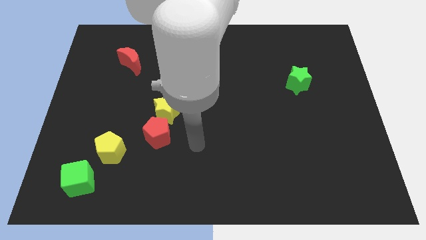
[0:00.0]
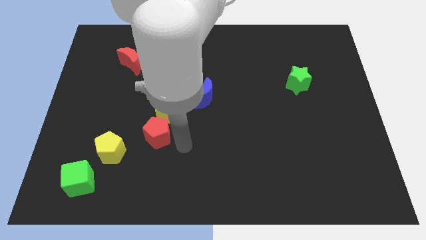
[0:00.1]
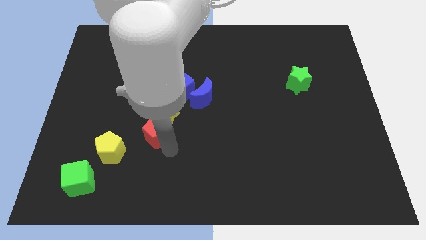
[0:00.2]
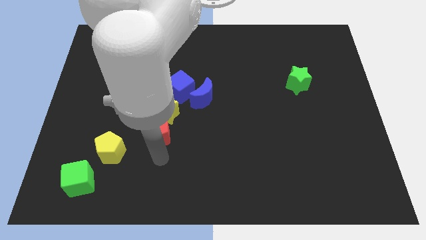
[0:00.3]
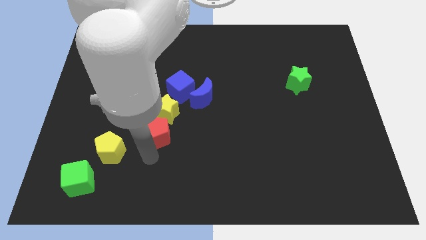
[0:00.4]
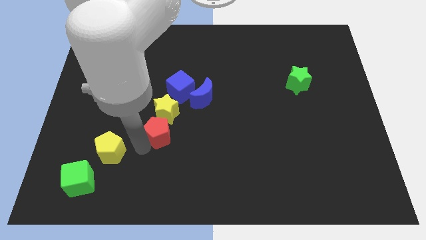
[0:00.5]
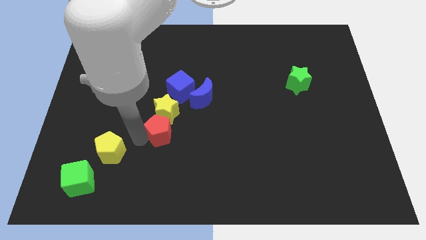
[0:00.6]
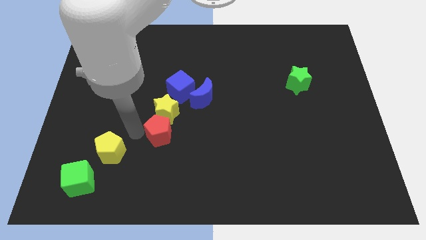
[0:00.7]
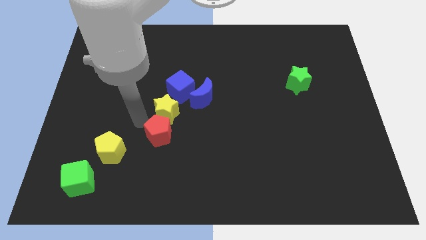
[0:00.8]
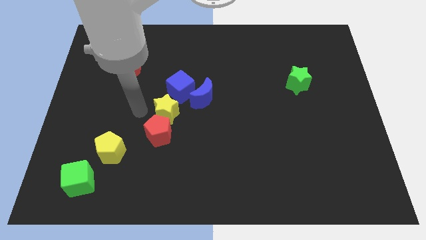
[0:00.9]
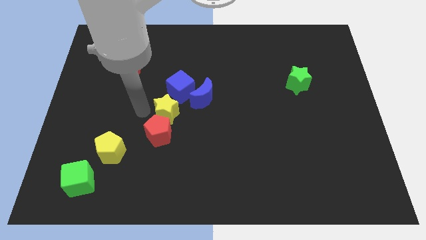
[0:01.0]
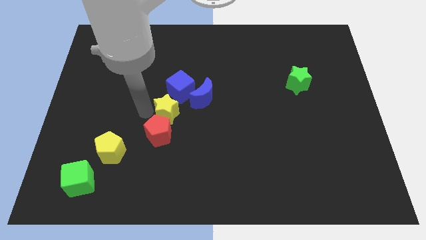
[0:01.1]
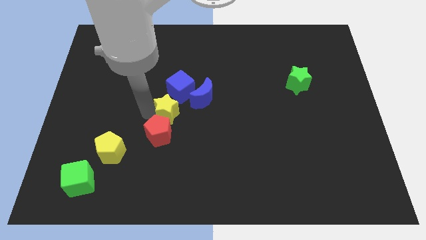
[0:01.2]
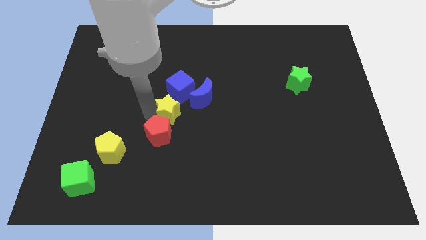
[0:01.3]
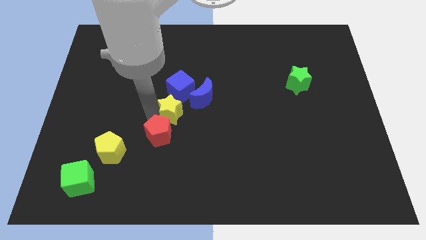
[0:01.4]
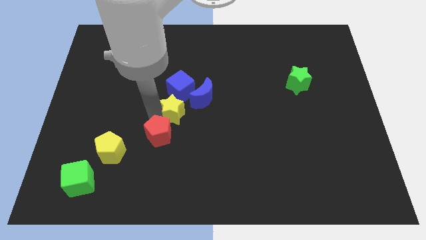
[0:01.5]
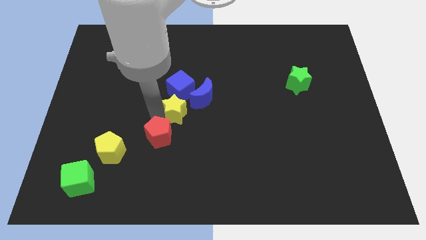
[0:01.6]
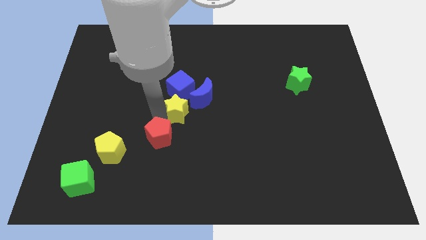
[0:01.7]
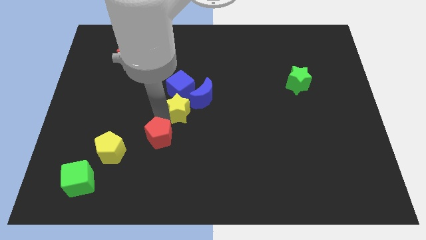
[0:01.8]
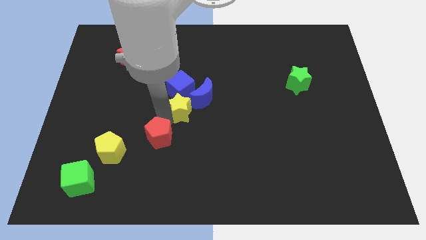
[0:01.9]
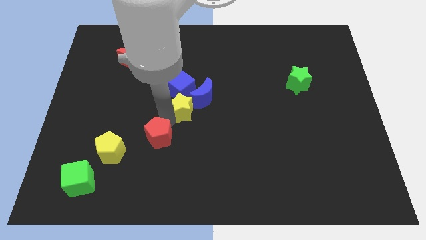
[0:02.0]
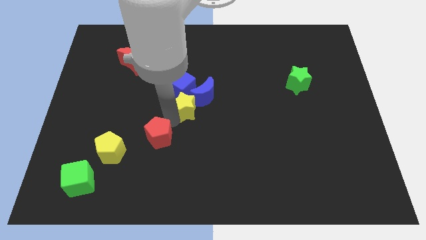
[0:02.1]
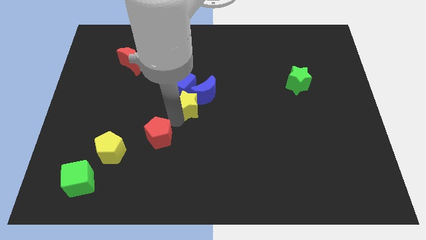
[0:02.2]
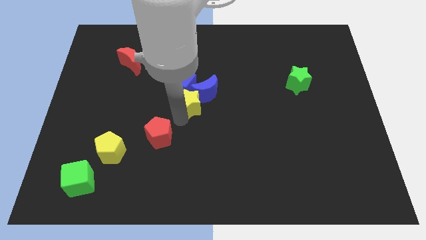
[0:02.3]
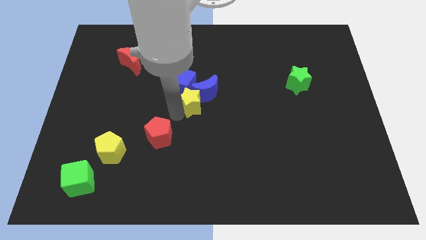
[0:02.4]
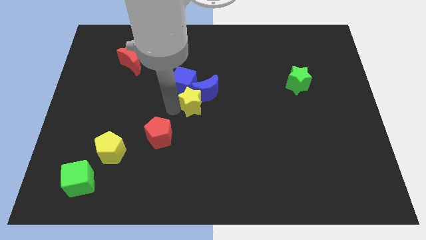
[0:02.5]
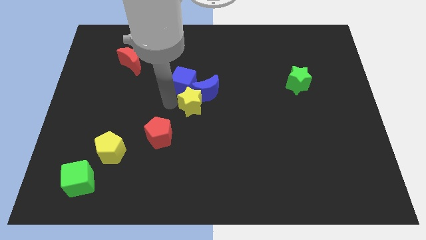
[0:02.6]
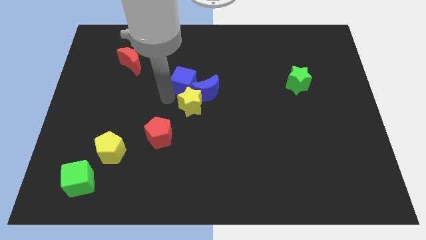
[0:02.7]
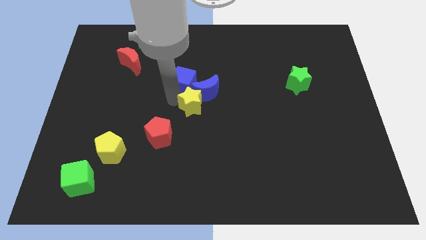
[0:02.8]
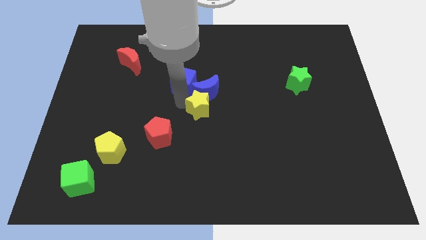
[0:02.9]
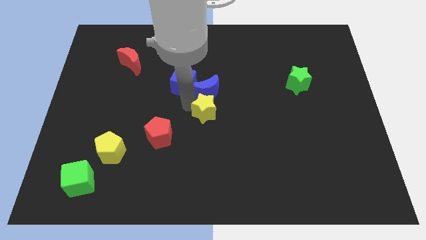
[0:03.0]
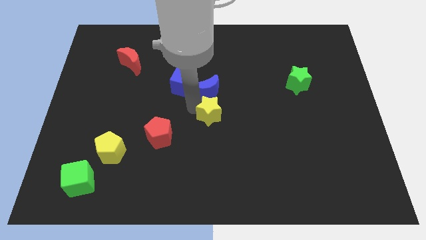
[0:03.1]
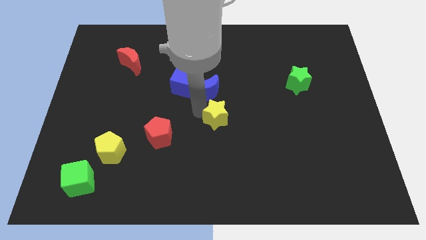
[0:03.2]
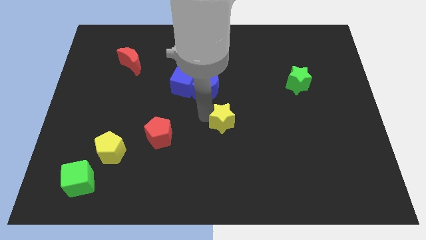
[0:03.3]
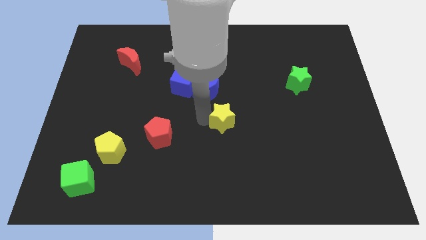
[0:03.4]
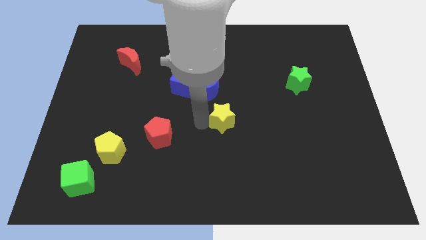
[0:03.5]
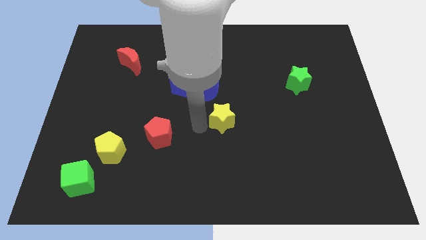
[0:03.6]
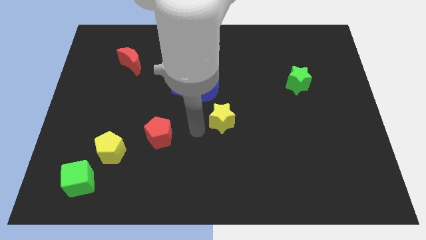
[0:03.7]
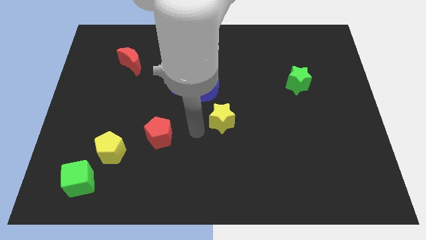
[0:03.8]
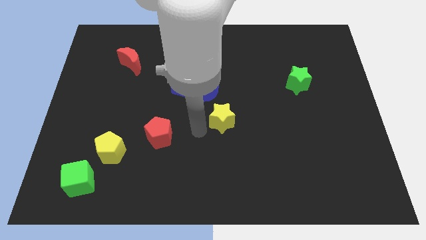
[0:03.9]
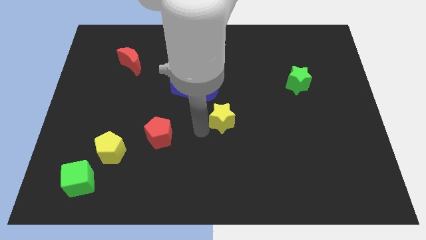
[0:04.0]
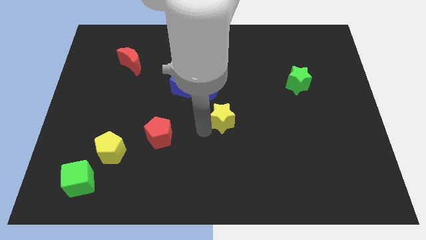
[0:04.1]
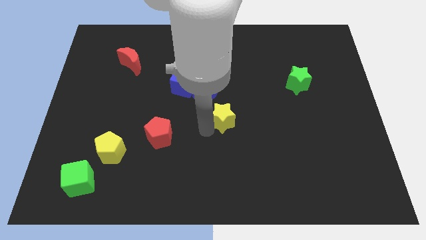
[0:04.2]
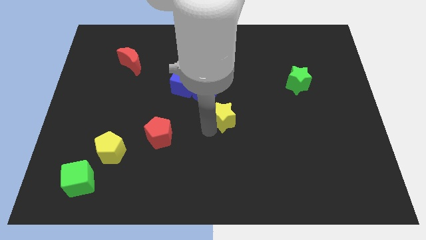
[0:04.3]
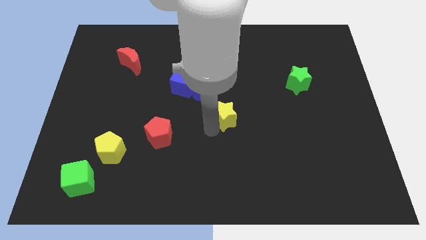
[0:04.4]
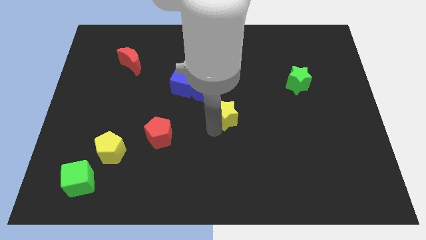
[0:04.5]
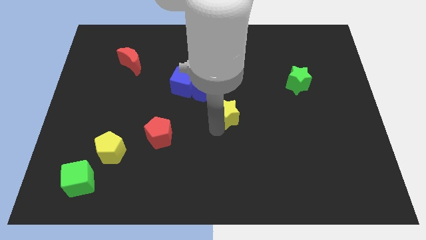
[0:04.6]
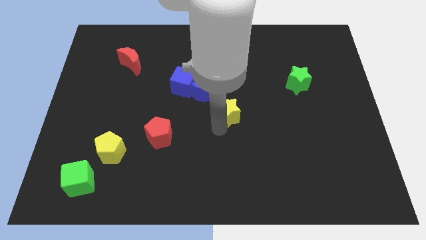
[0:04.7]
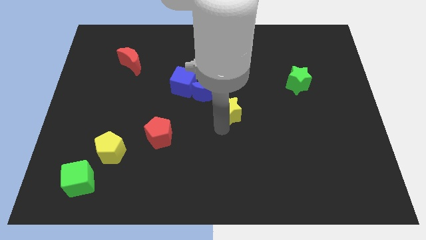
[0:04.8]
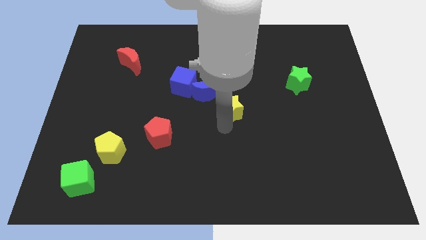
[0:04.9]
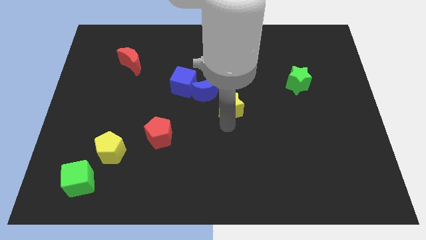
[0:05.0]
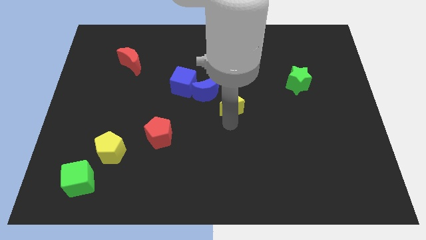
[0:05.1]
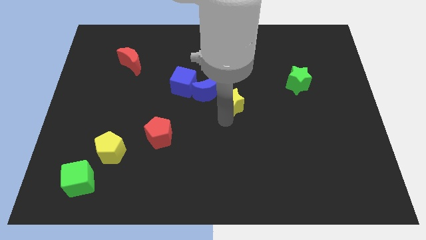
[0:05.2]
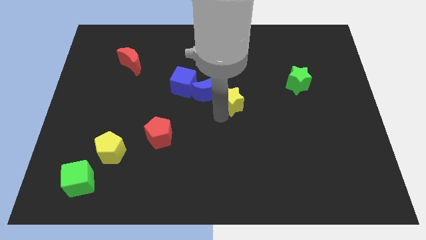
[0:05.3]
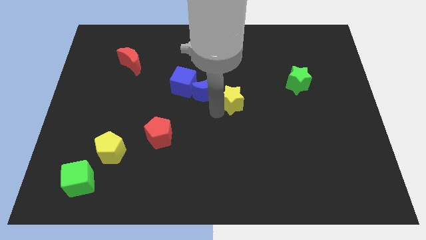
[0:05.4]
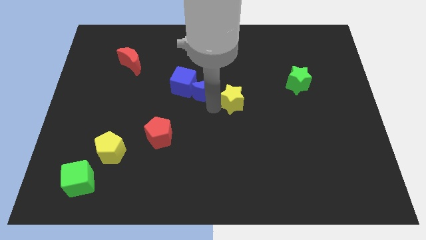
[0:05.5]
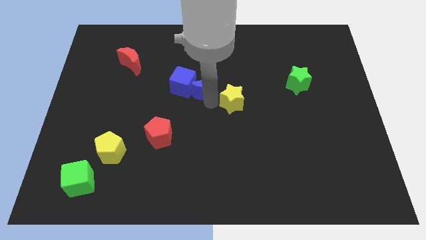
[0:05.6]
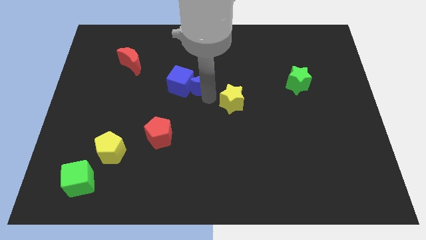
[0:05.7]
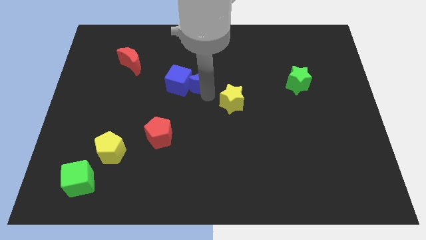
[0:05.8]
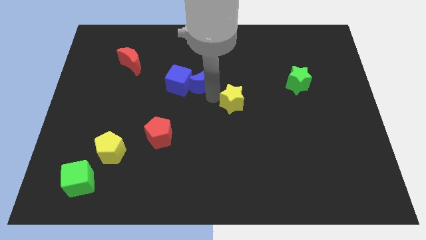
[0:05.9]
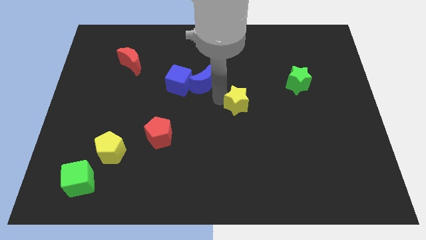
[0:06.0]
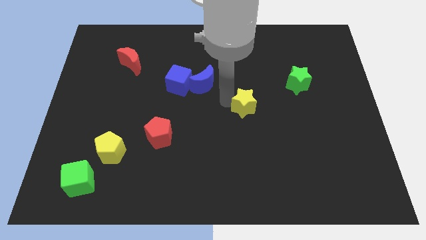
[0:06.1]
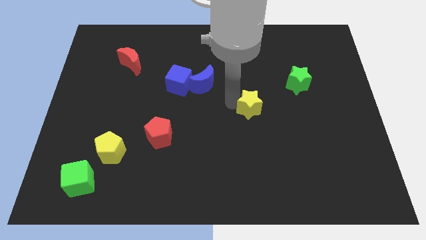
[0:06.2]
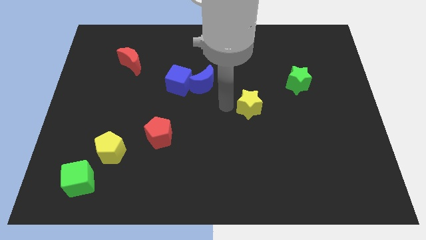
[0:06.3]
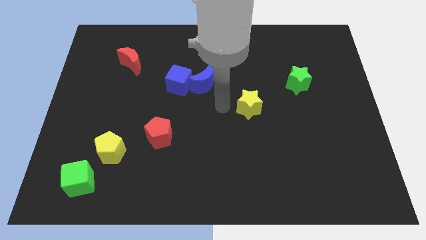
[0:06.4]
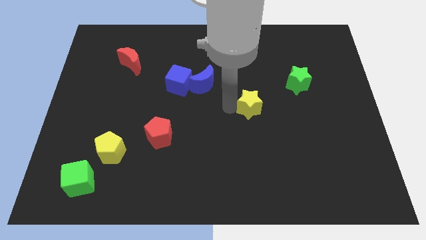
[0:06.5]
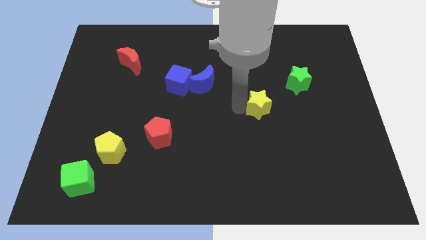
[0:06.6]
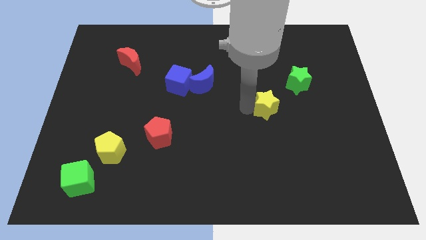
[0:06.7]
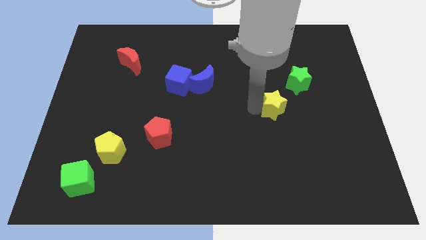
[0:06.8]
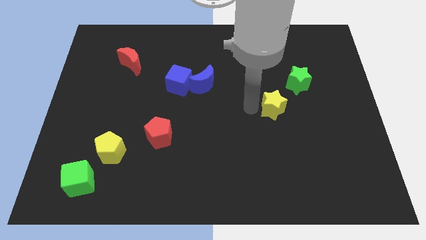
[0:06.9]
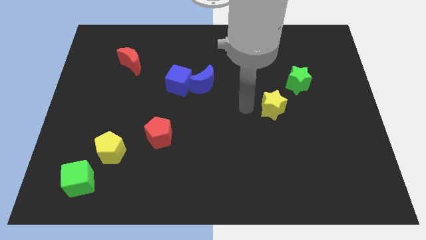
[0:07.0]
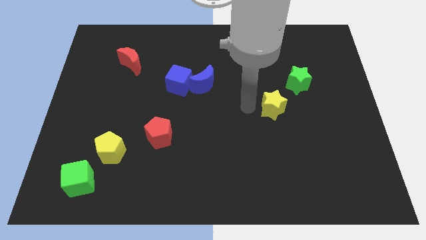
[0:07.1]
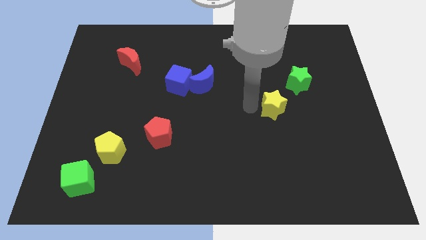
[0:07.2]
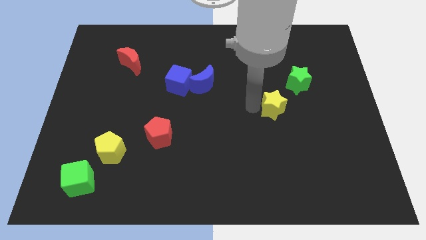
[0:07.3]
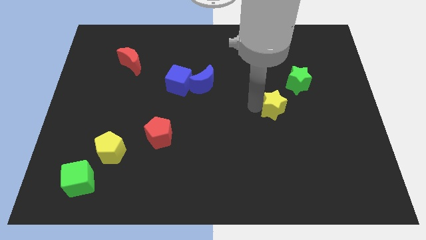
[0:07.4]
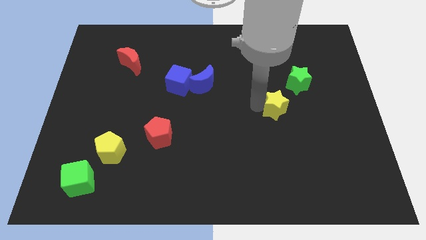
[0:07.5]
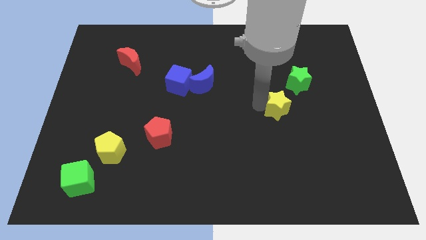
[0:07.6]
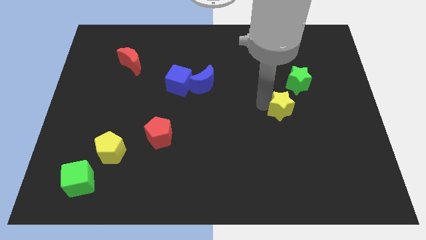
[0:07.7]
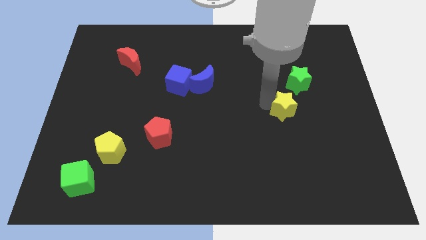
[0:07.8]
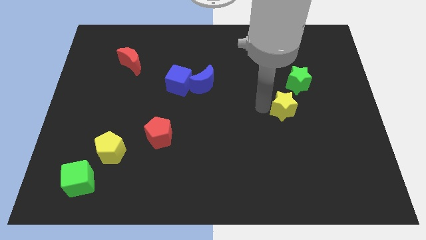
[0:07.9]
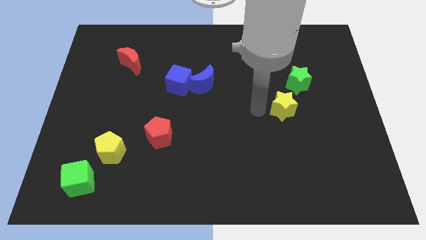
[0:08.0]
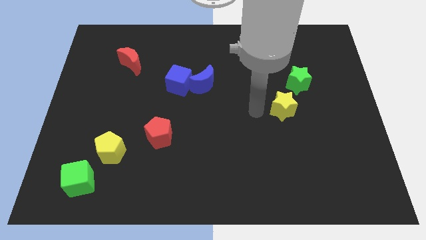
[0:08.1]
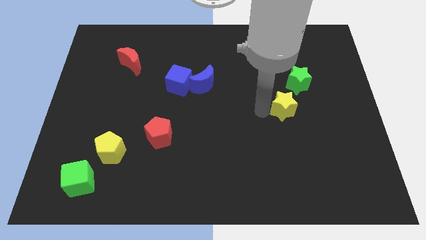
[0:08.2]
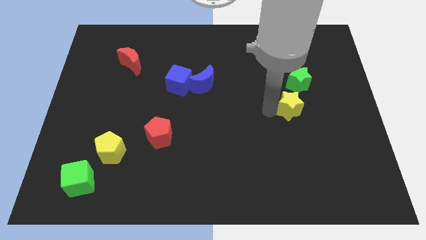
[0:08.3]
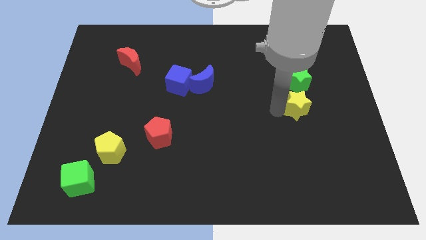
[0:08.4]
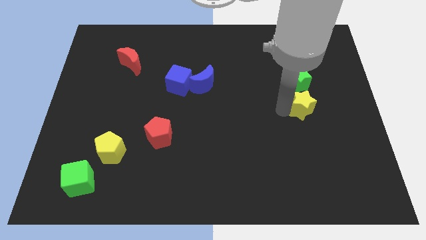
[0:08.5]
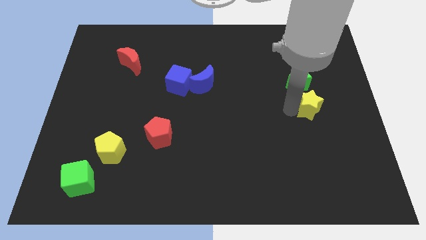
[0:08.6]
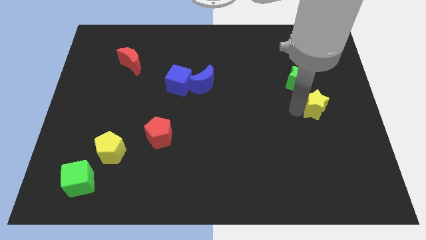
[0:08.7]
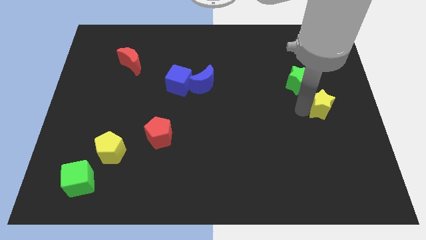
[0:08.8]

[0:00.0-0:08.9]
slide the yellow star to the right side of the board
